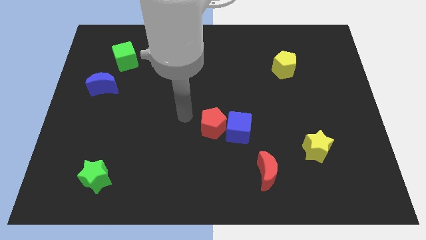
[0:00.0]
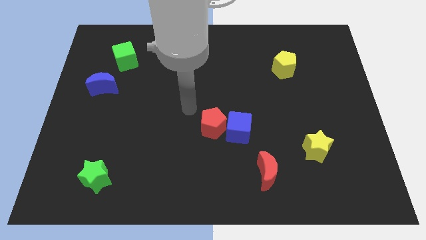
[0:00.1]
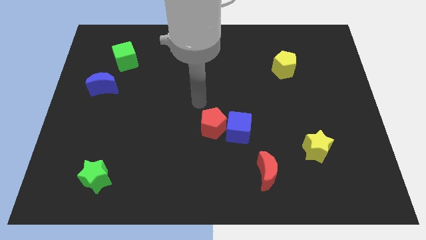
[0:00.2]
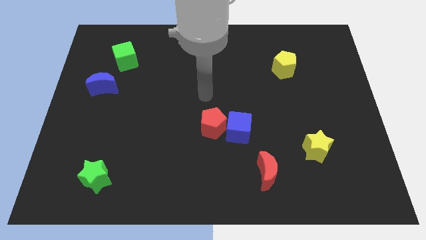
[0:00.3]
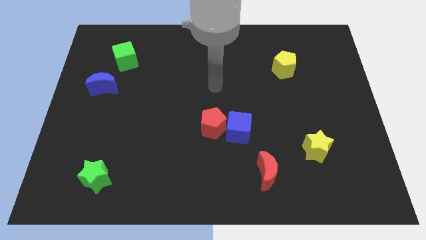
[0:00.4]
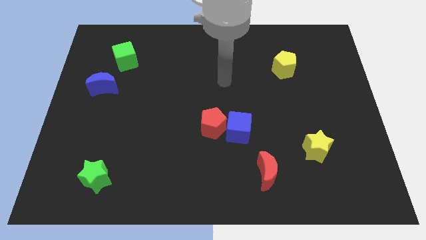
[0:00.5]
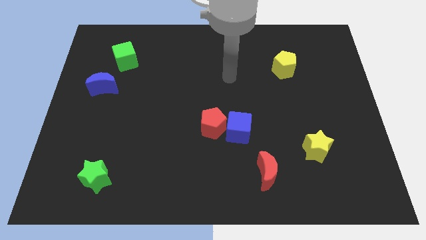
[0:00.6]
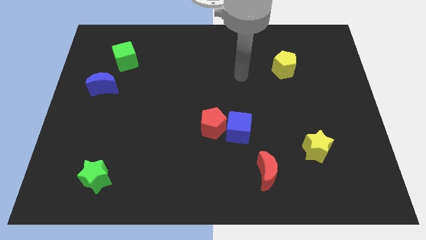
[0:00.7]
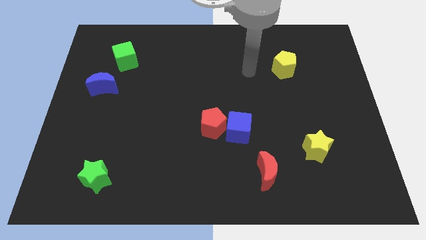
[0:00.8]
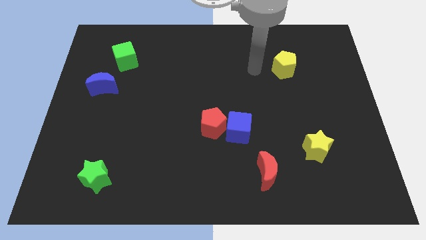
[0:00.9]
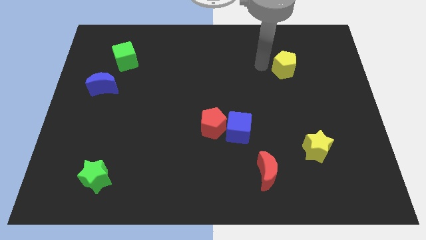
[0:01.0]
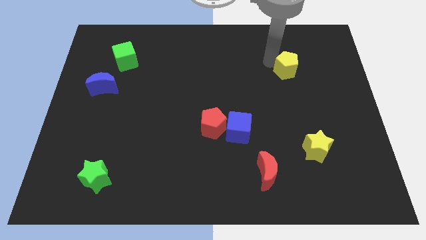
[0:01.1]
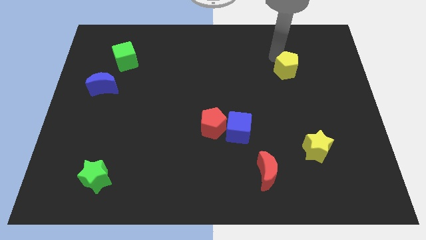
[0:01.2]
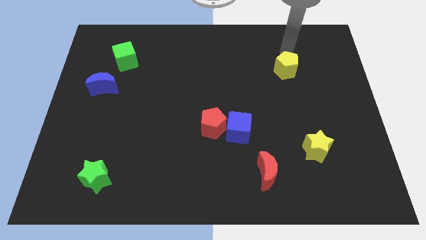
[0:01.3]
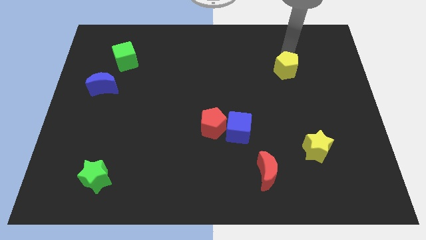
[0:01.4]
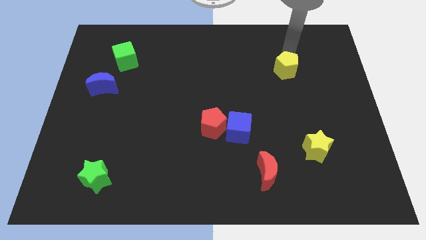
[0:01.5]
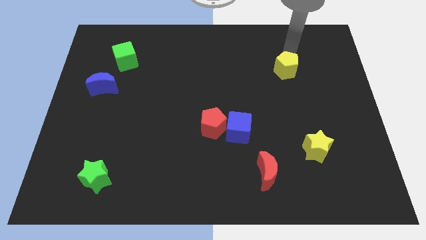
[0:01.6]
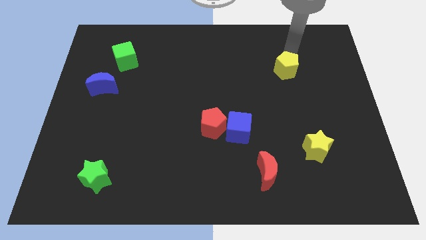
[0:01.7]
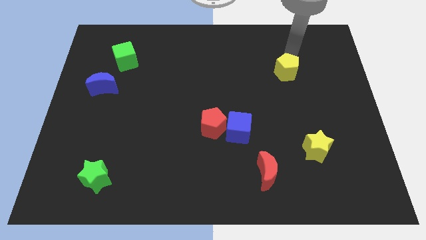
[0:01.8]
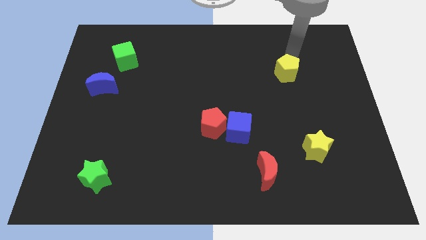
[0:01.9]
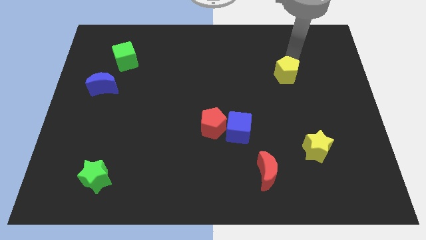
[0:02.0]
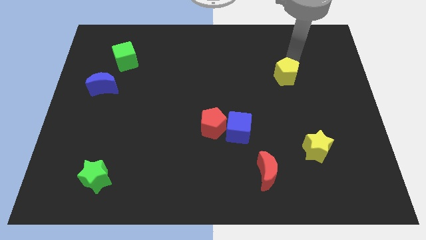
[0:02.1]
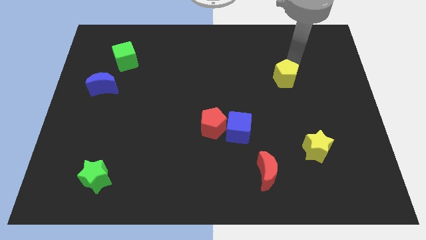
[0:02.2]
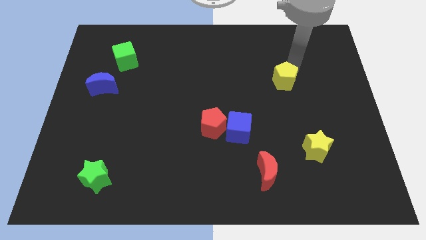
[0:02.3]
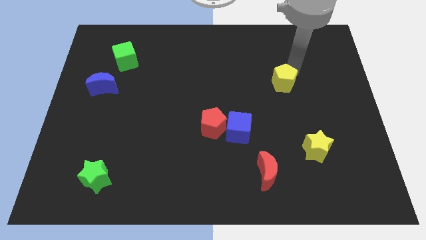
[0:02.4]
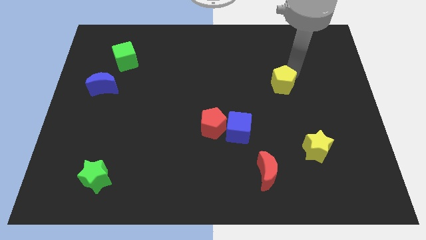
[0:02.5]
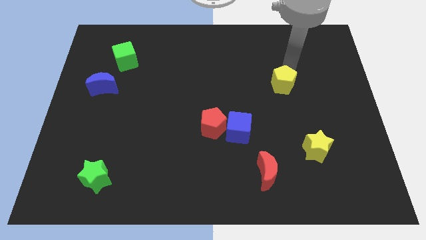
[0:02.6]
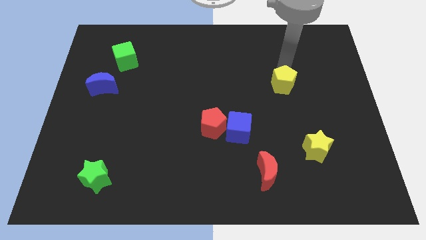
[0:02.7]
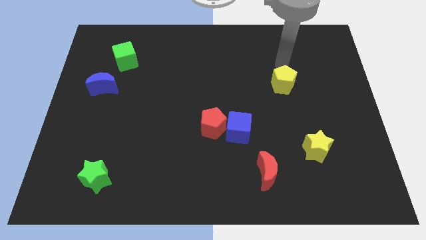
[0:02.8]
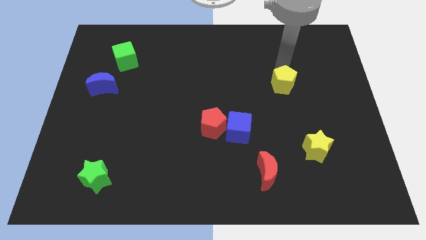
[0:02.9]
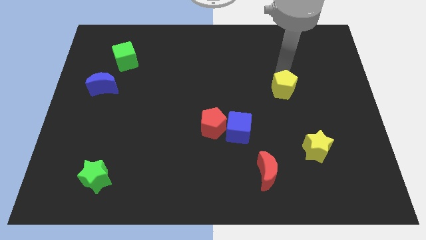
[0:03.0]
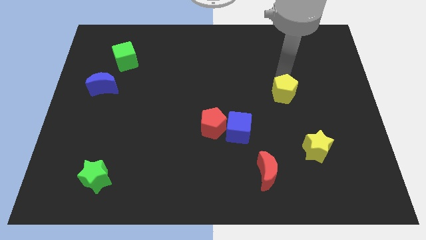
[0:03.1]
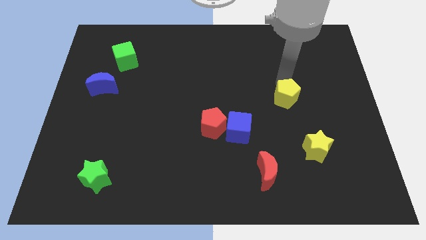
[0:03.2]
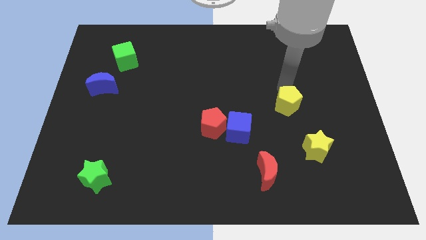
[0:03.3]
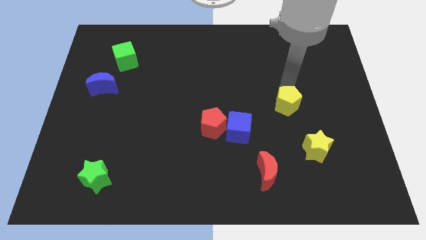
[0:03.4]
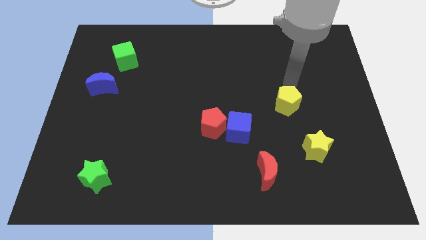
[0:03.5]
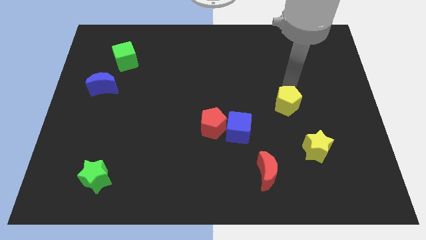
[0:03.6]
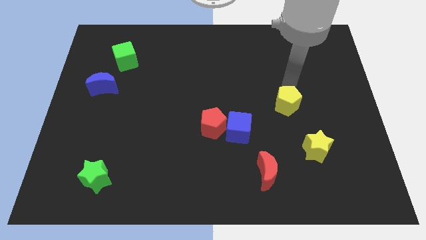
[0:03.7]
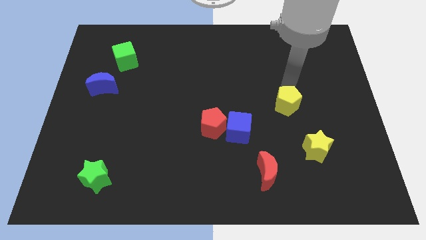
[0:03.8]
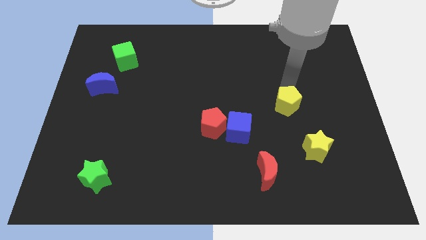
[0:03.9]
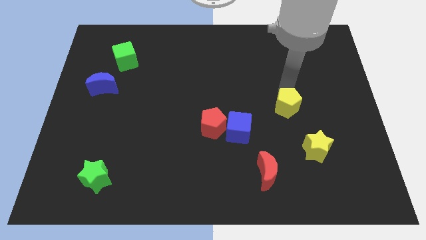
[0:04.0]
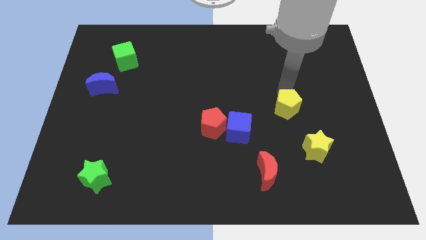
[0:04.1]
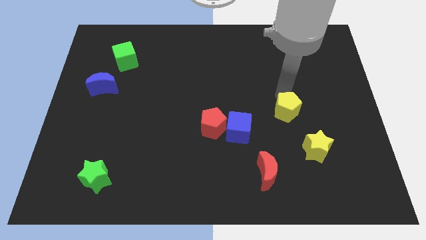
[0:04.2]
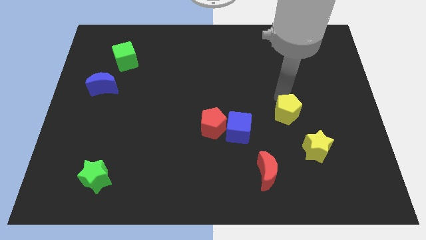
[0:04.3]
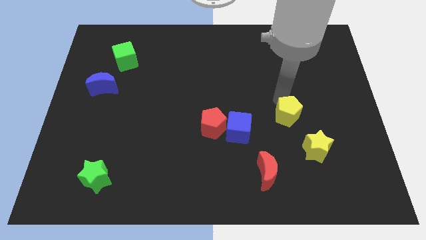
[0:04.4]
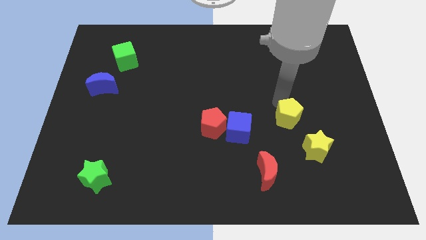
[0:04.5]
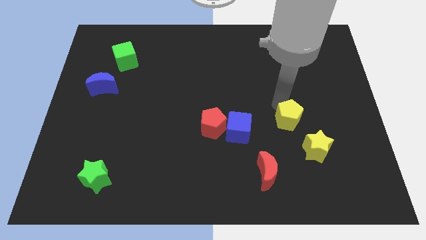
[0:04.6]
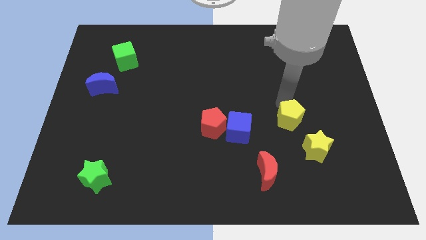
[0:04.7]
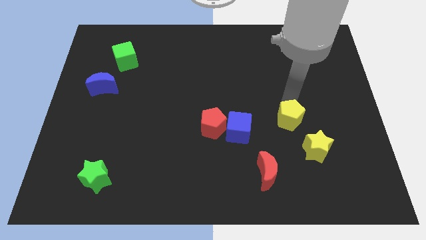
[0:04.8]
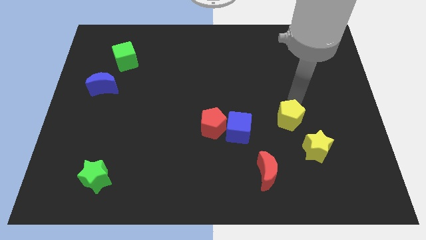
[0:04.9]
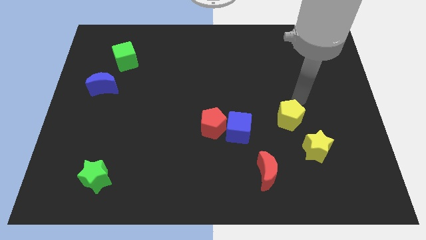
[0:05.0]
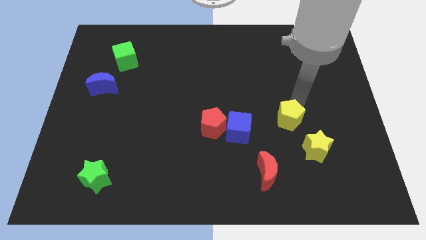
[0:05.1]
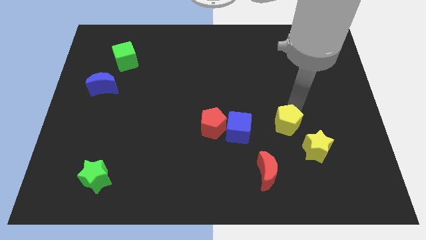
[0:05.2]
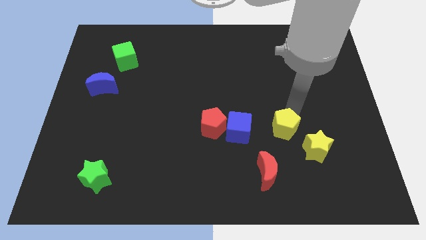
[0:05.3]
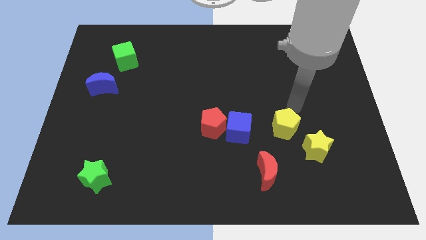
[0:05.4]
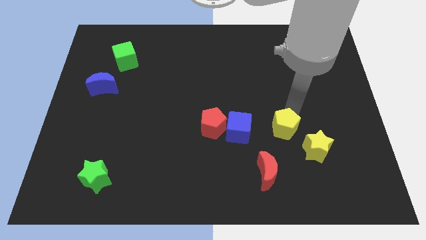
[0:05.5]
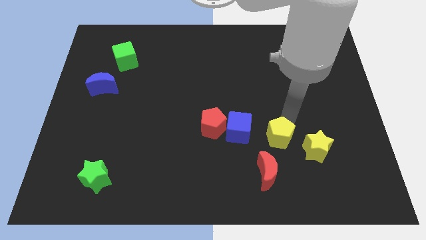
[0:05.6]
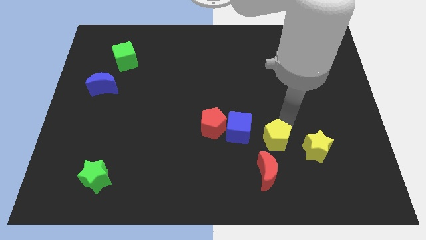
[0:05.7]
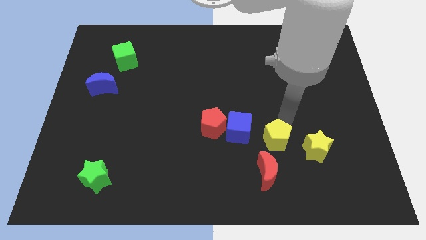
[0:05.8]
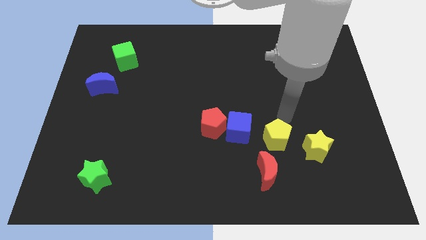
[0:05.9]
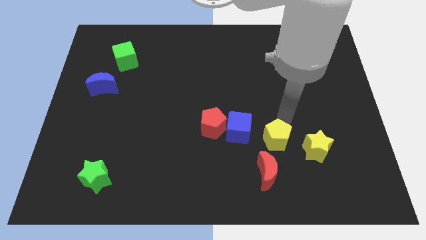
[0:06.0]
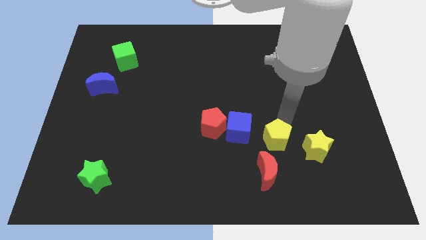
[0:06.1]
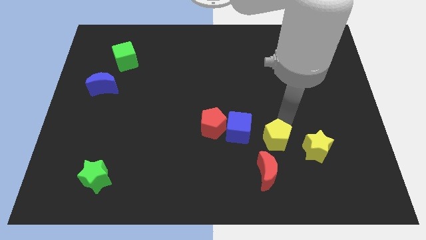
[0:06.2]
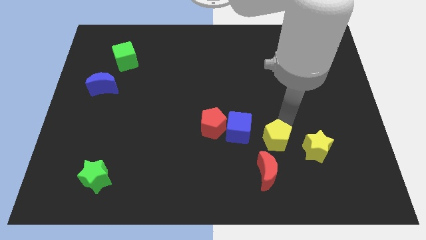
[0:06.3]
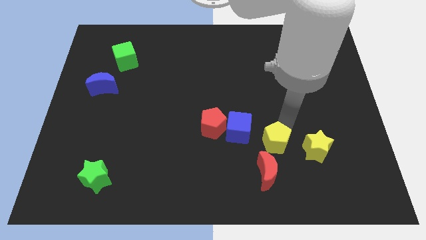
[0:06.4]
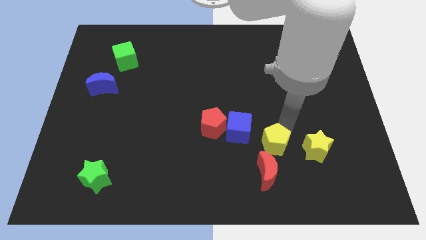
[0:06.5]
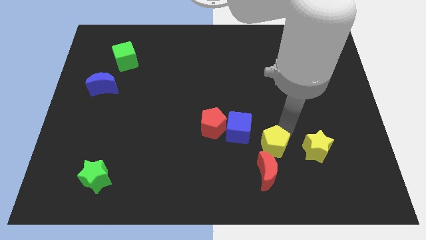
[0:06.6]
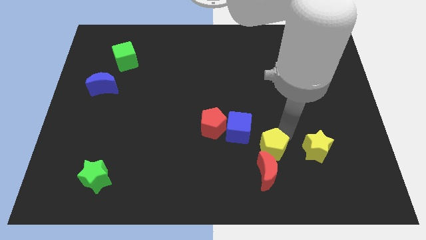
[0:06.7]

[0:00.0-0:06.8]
slide the yellow pentagon next to the red moon
